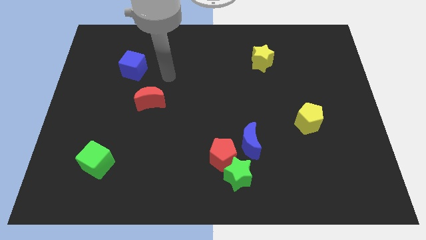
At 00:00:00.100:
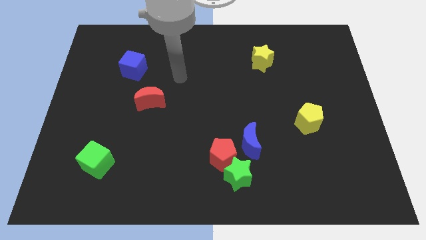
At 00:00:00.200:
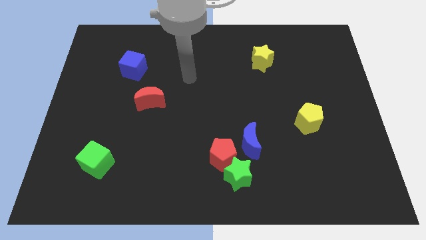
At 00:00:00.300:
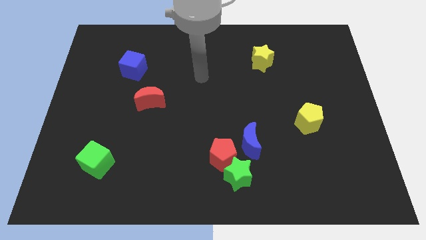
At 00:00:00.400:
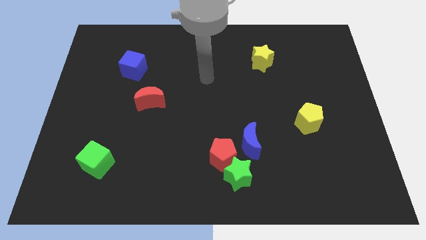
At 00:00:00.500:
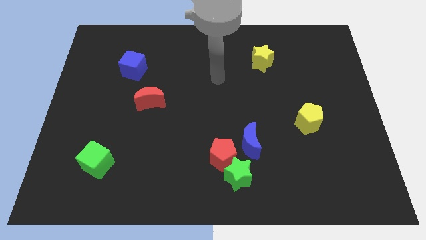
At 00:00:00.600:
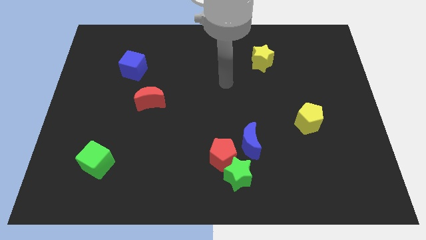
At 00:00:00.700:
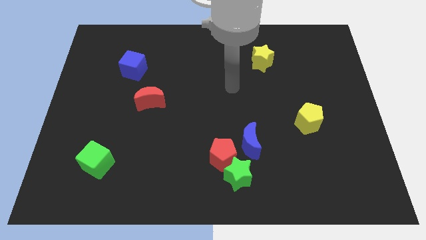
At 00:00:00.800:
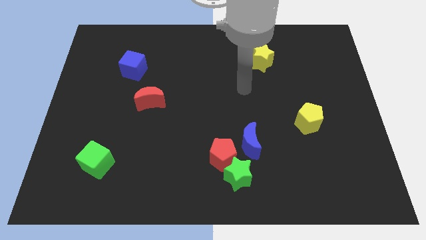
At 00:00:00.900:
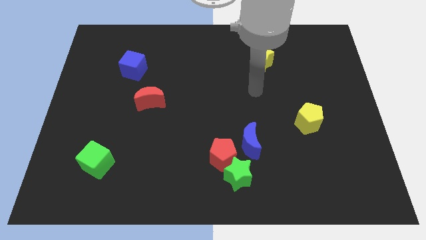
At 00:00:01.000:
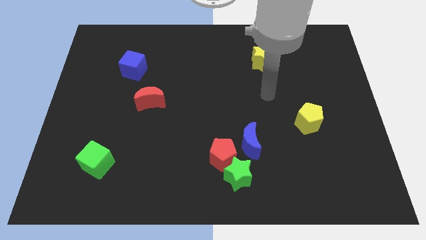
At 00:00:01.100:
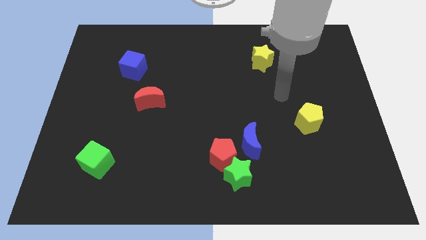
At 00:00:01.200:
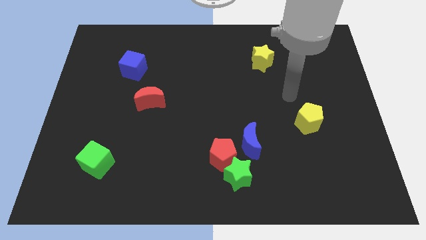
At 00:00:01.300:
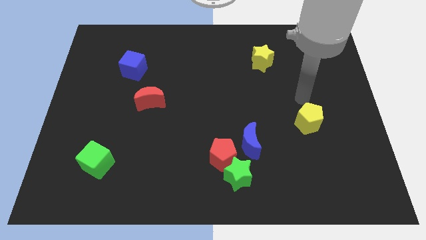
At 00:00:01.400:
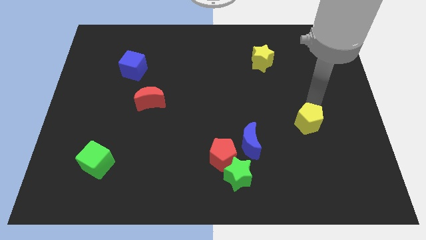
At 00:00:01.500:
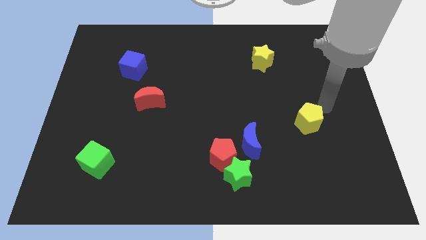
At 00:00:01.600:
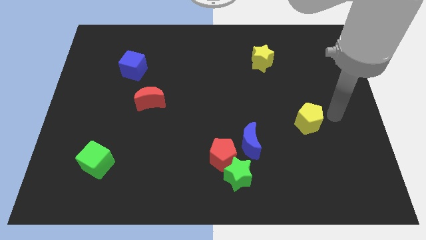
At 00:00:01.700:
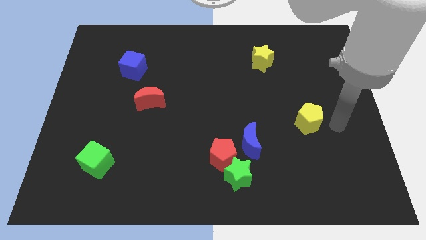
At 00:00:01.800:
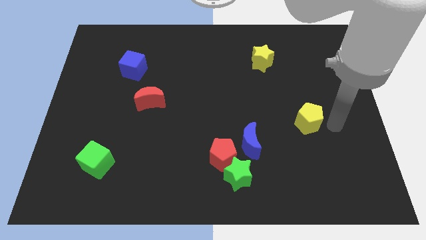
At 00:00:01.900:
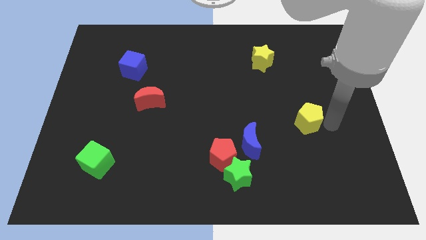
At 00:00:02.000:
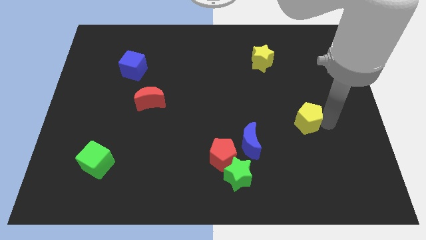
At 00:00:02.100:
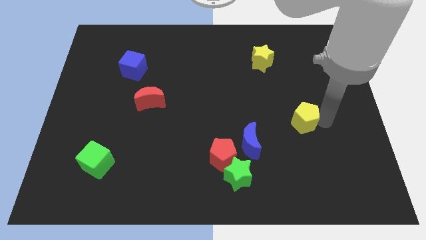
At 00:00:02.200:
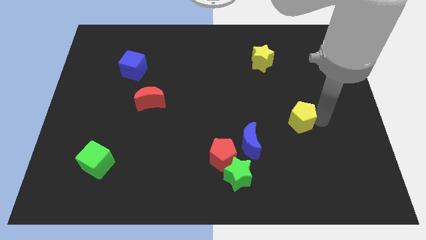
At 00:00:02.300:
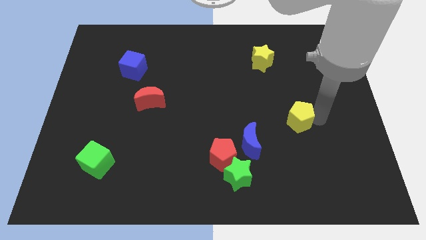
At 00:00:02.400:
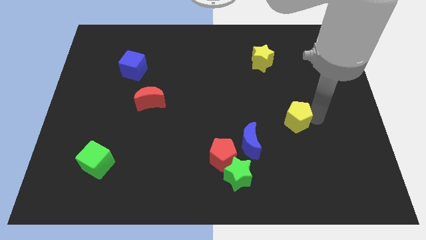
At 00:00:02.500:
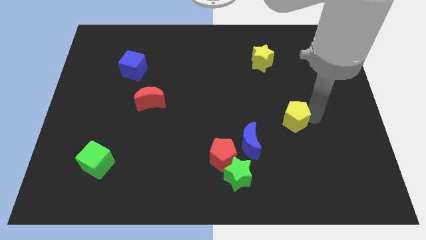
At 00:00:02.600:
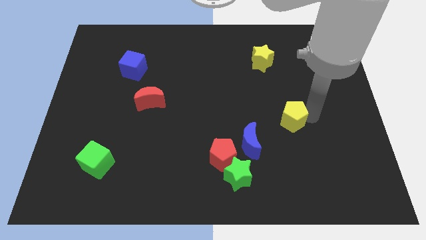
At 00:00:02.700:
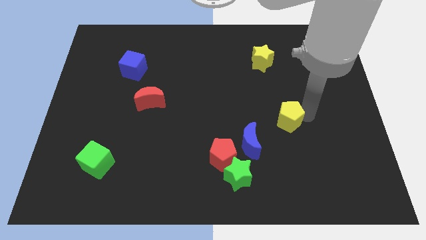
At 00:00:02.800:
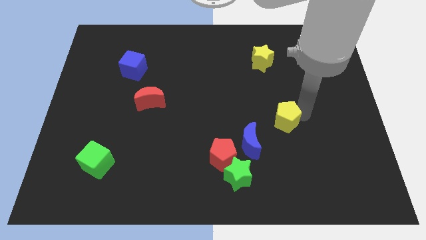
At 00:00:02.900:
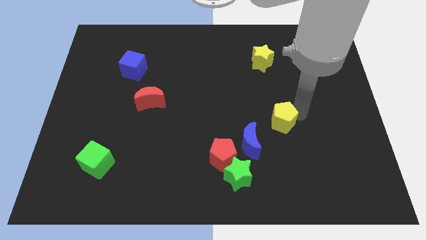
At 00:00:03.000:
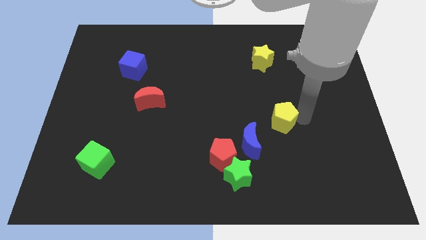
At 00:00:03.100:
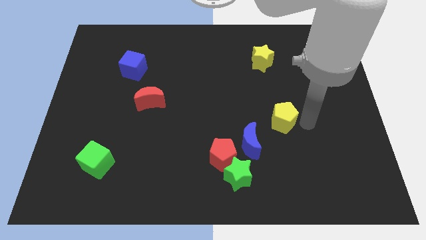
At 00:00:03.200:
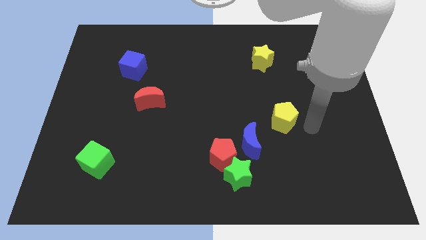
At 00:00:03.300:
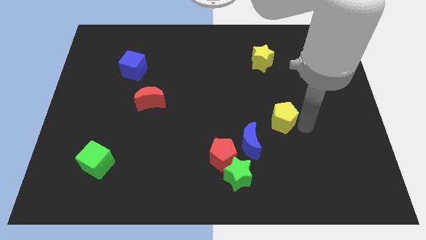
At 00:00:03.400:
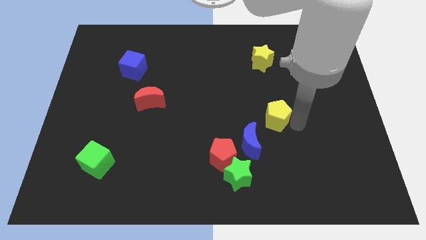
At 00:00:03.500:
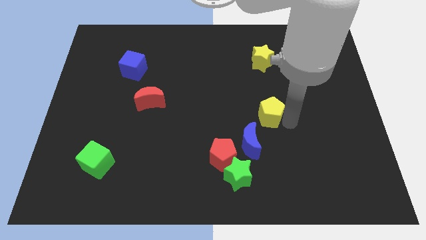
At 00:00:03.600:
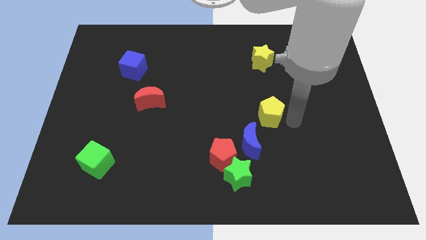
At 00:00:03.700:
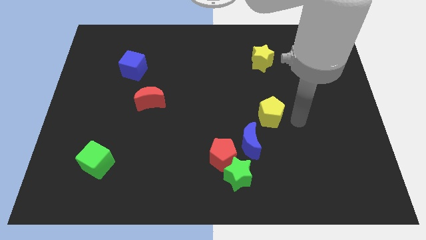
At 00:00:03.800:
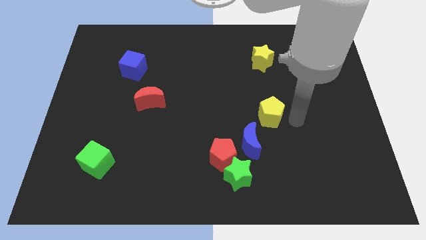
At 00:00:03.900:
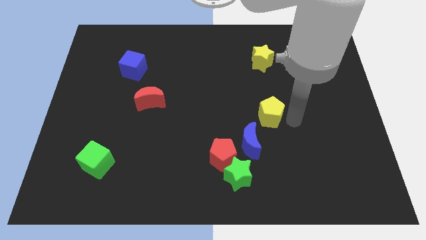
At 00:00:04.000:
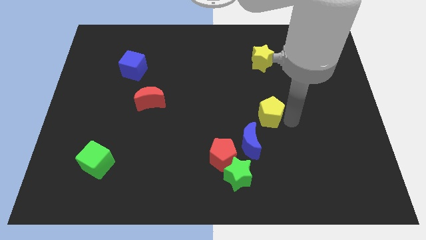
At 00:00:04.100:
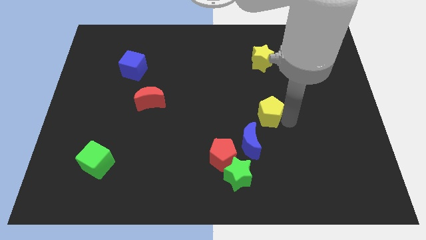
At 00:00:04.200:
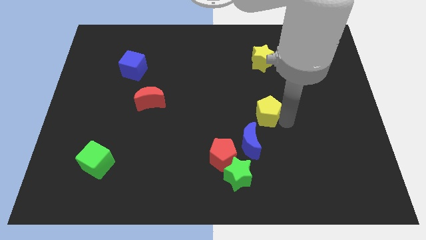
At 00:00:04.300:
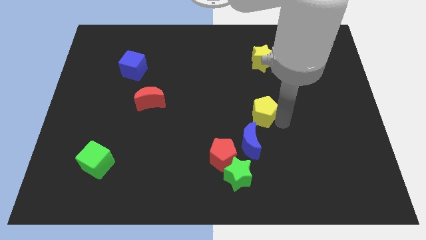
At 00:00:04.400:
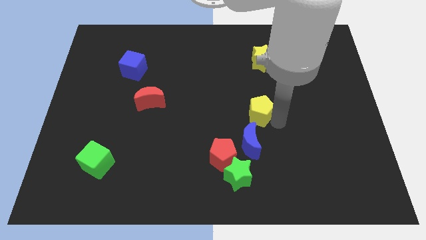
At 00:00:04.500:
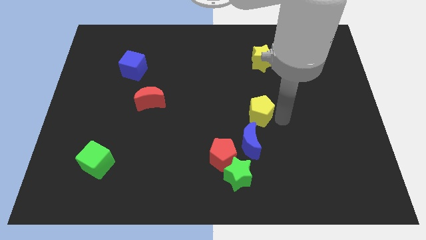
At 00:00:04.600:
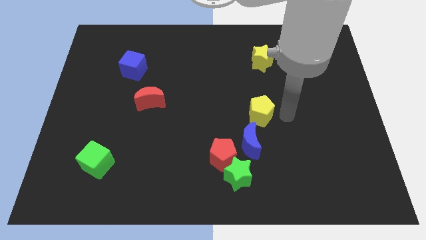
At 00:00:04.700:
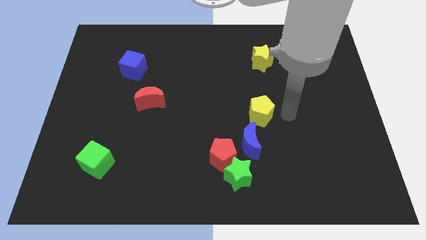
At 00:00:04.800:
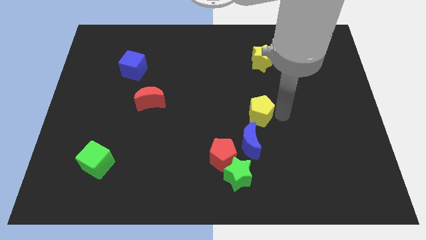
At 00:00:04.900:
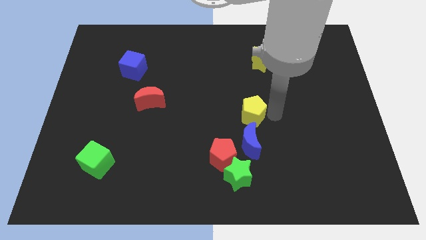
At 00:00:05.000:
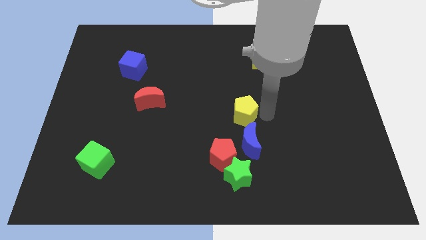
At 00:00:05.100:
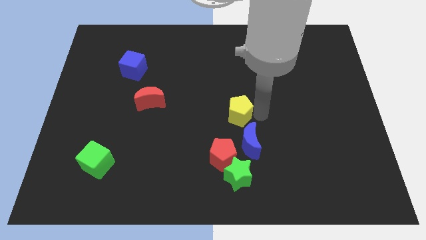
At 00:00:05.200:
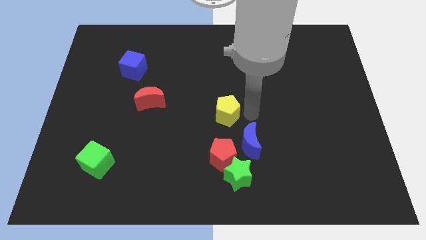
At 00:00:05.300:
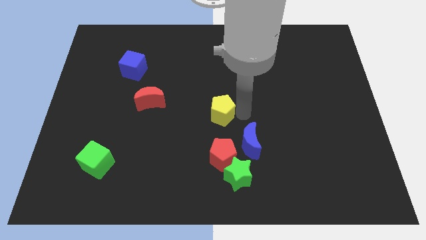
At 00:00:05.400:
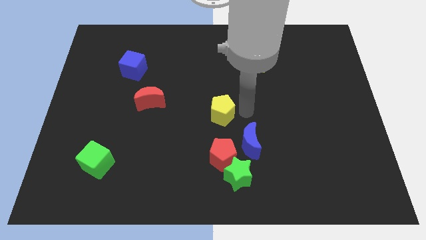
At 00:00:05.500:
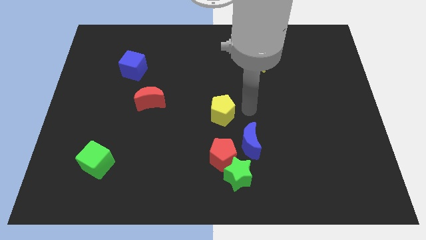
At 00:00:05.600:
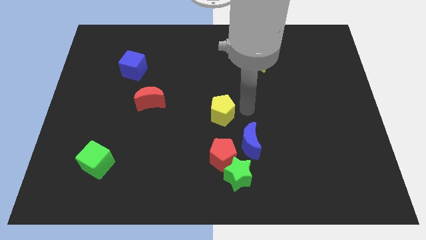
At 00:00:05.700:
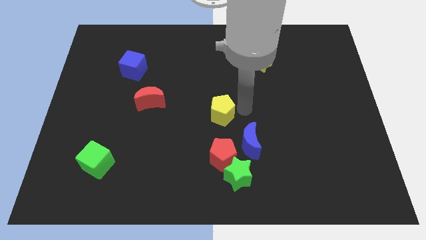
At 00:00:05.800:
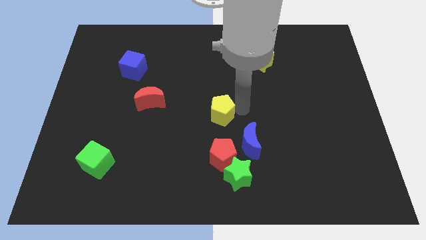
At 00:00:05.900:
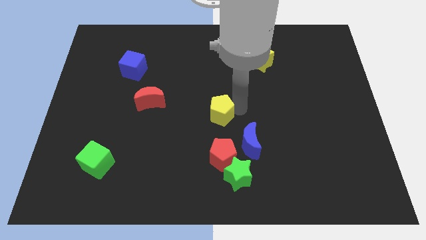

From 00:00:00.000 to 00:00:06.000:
slide the yellow pentagon left

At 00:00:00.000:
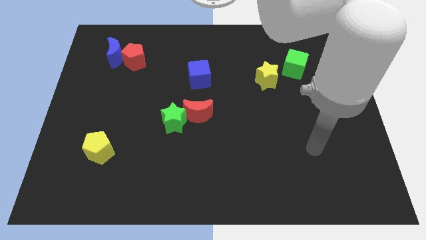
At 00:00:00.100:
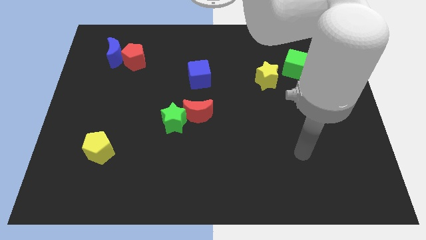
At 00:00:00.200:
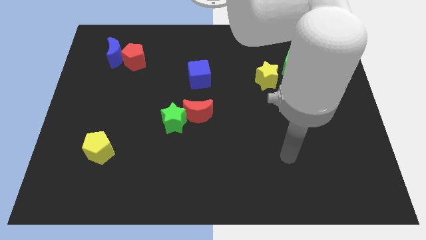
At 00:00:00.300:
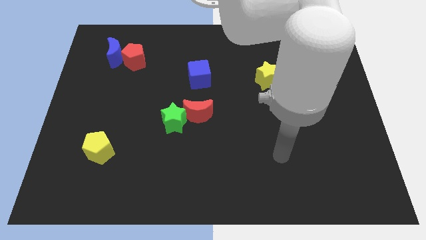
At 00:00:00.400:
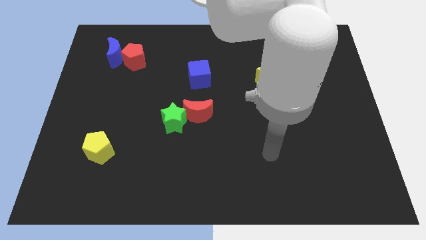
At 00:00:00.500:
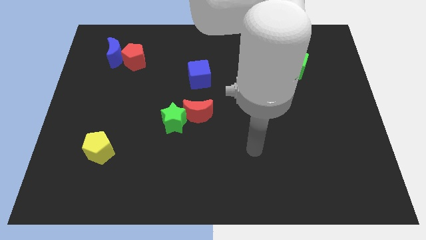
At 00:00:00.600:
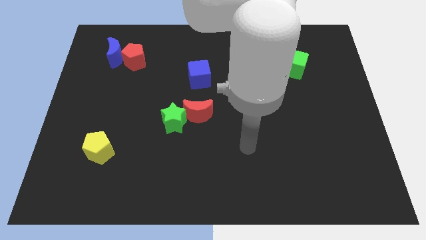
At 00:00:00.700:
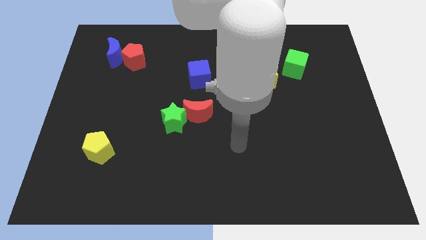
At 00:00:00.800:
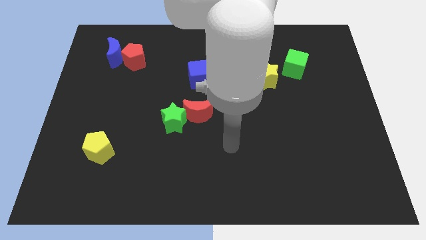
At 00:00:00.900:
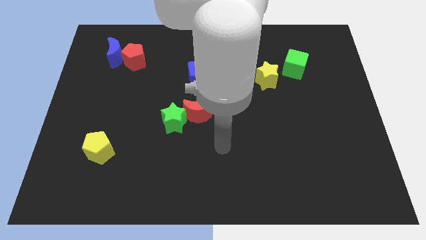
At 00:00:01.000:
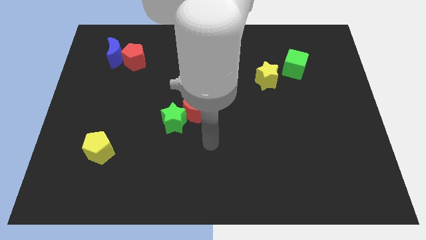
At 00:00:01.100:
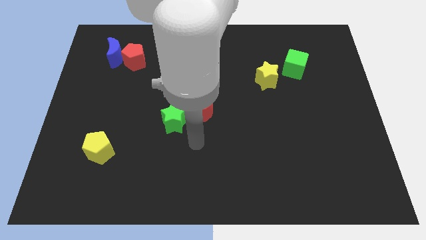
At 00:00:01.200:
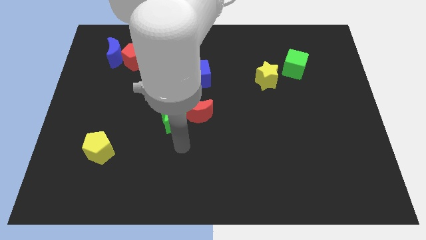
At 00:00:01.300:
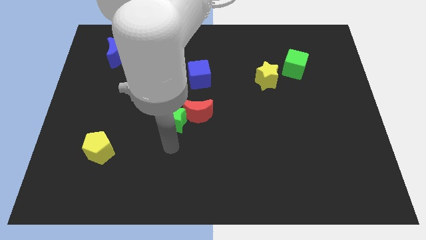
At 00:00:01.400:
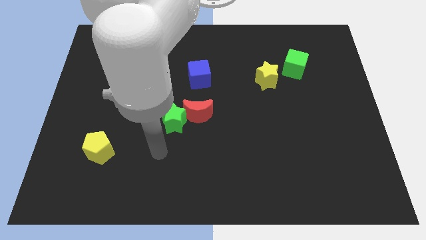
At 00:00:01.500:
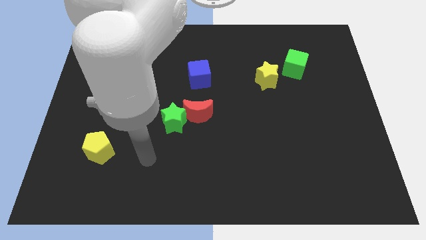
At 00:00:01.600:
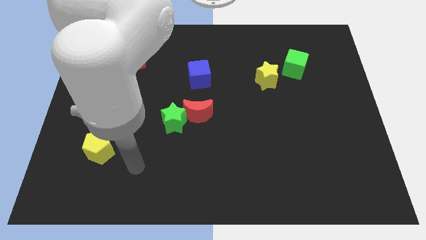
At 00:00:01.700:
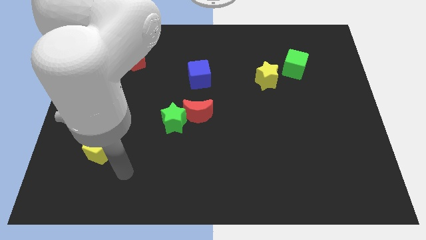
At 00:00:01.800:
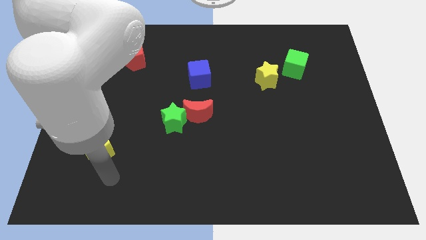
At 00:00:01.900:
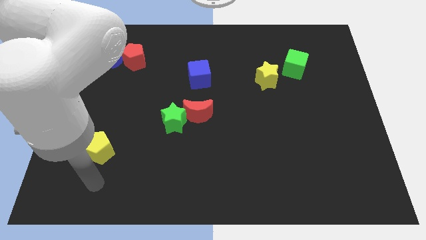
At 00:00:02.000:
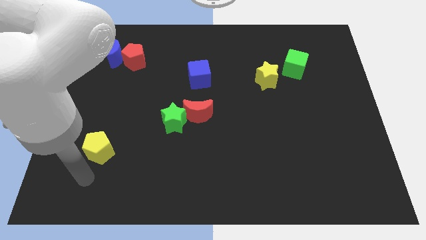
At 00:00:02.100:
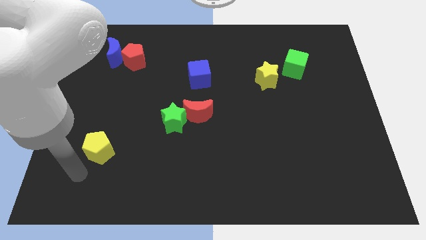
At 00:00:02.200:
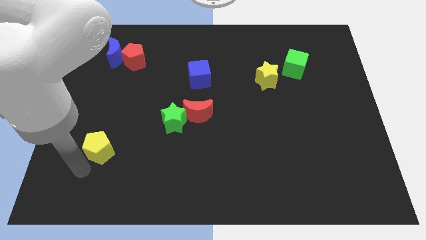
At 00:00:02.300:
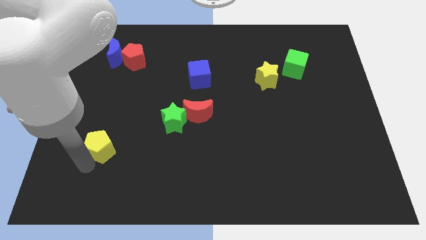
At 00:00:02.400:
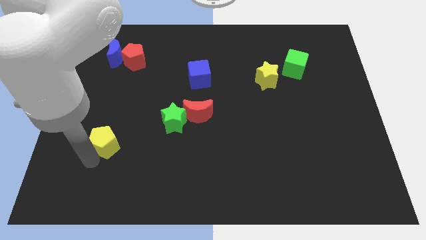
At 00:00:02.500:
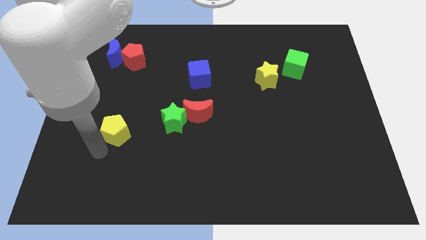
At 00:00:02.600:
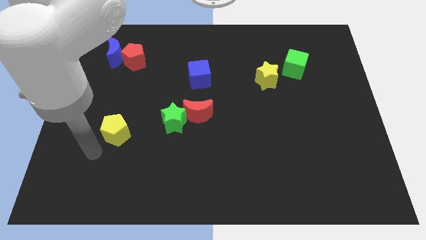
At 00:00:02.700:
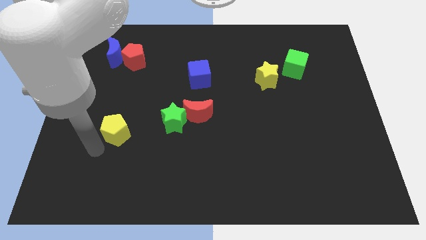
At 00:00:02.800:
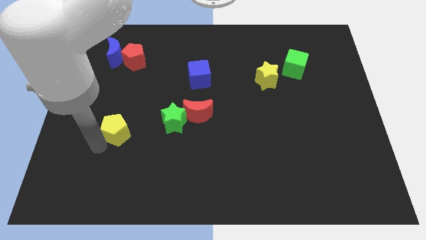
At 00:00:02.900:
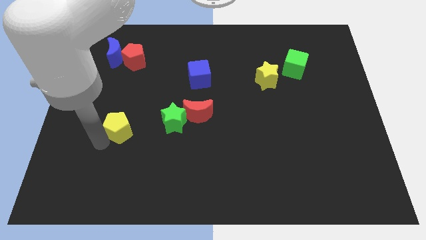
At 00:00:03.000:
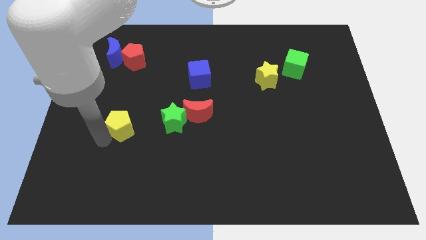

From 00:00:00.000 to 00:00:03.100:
slide the yellow pentagon slightly up and right diagonally
